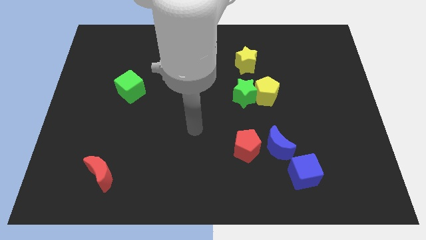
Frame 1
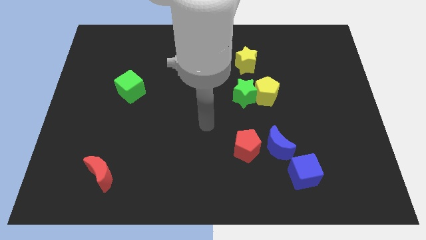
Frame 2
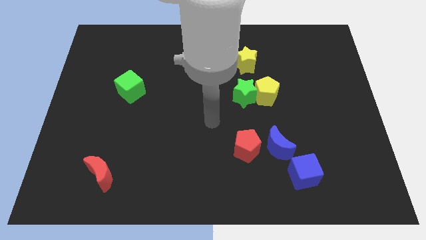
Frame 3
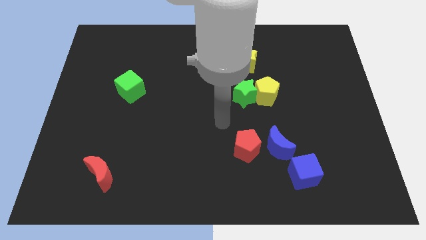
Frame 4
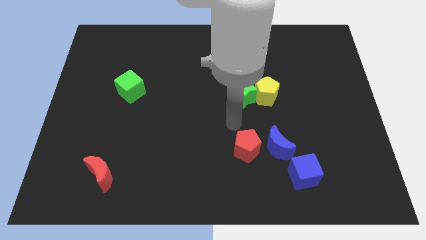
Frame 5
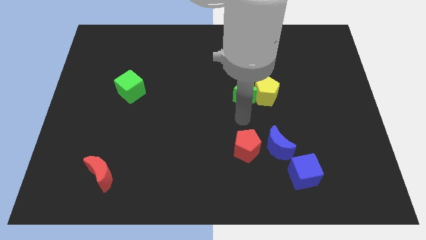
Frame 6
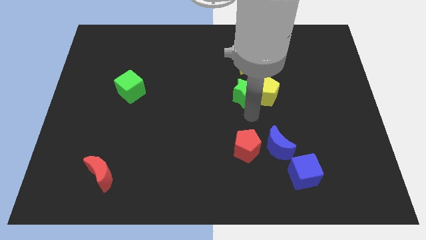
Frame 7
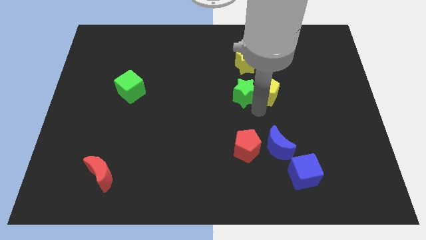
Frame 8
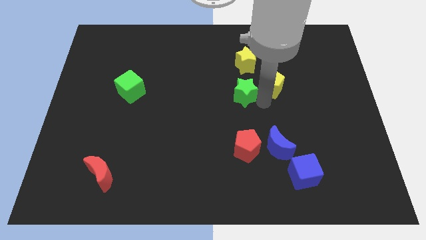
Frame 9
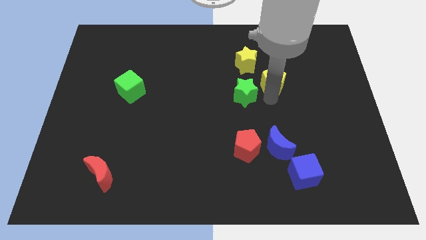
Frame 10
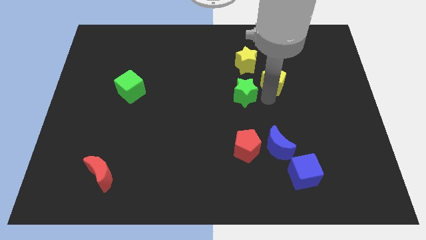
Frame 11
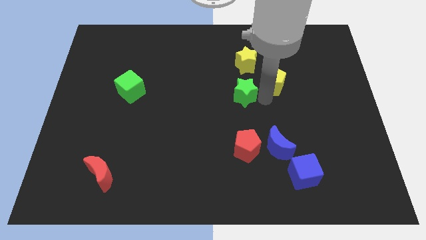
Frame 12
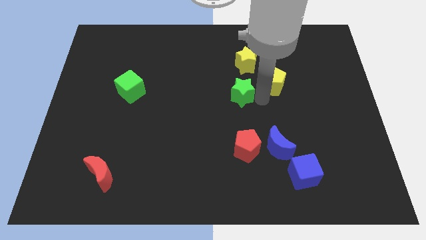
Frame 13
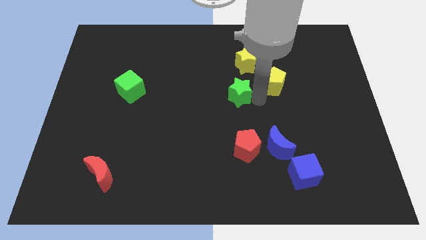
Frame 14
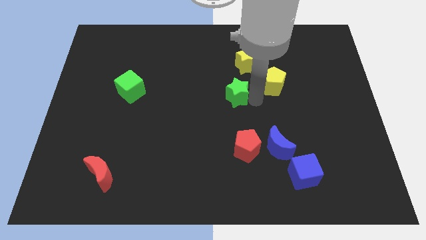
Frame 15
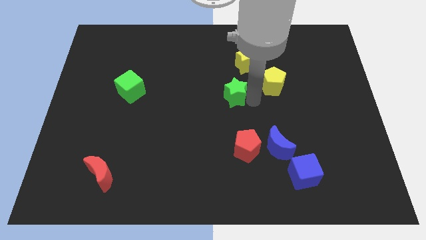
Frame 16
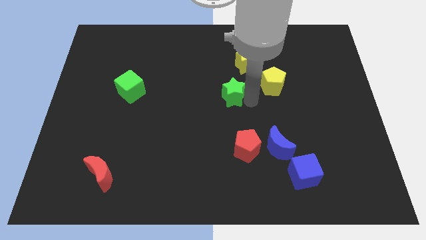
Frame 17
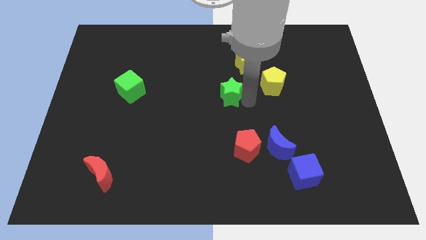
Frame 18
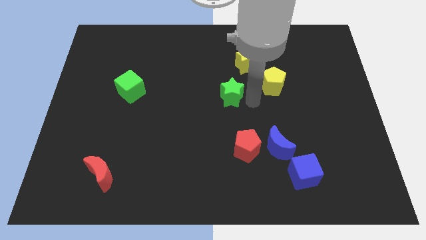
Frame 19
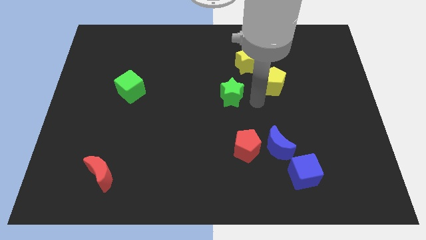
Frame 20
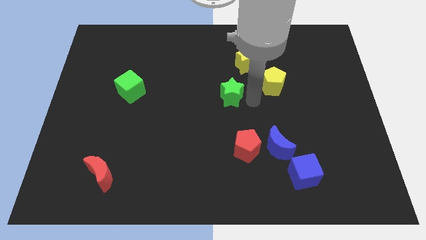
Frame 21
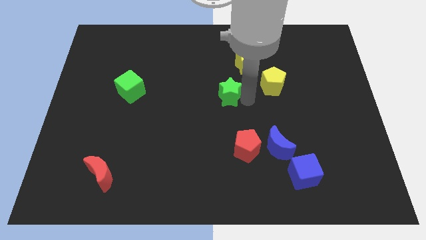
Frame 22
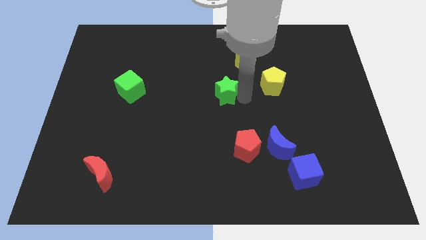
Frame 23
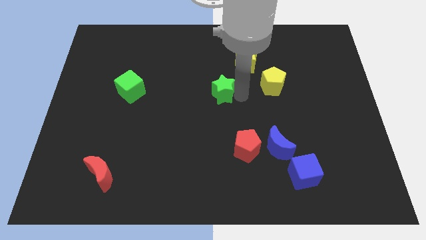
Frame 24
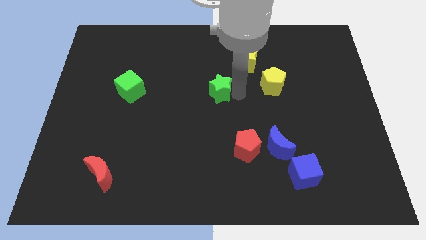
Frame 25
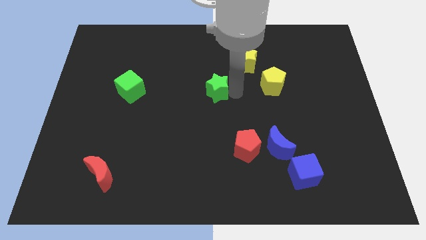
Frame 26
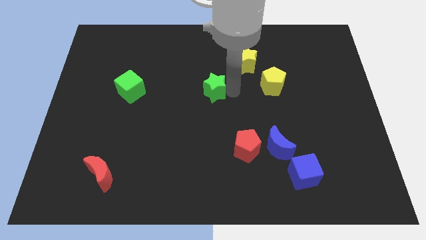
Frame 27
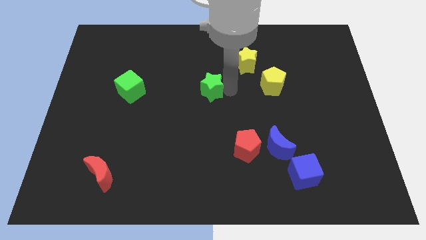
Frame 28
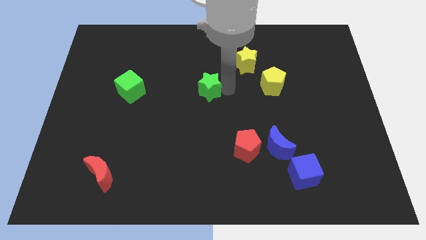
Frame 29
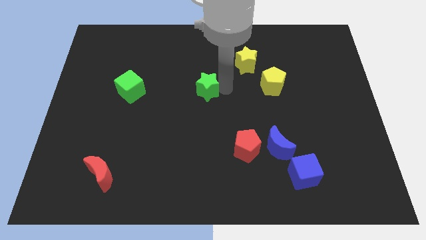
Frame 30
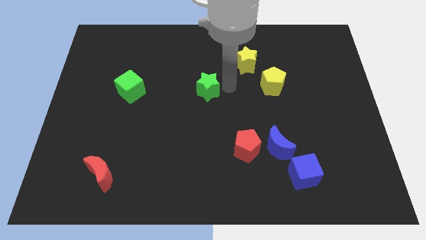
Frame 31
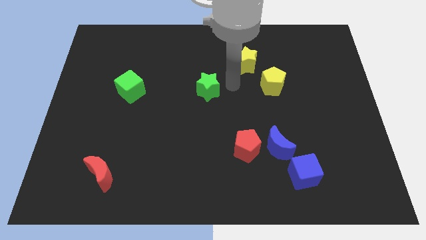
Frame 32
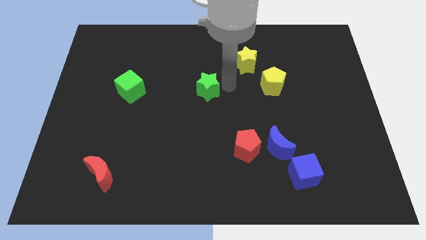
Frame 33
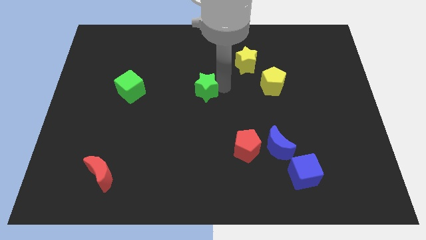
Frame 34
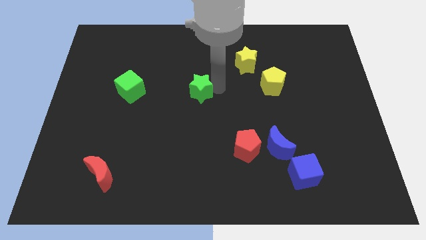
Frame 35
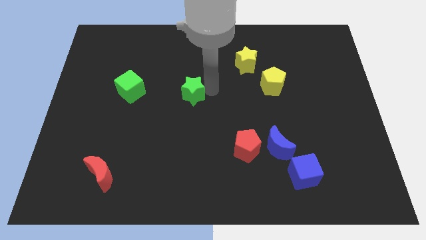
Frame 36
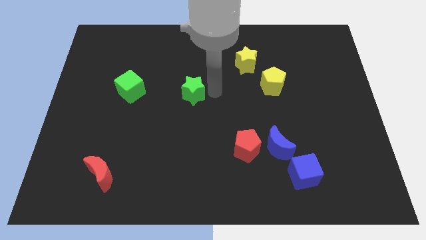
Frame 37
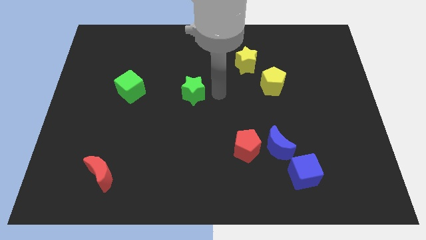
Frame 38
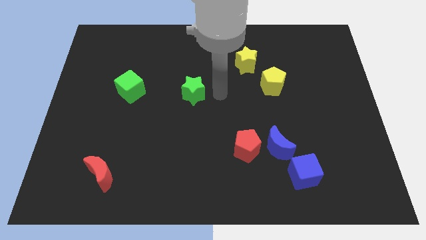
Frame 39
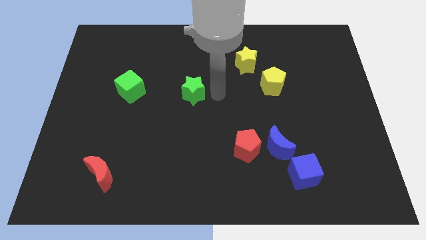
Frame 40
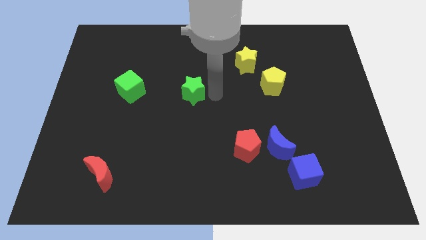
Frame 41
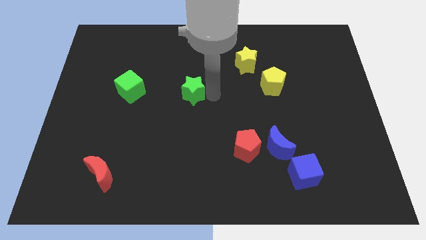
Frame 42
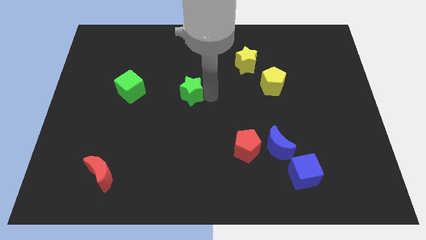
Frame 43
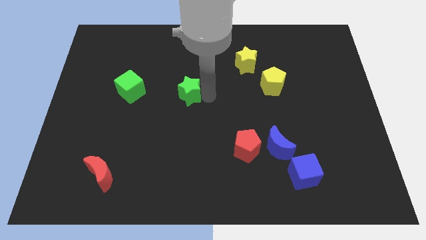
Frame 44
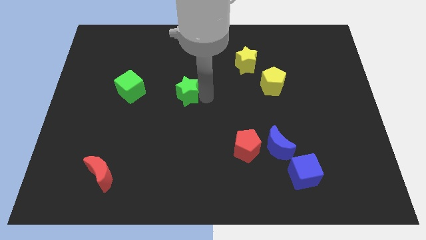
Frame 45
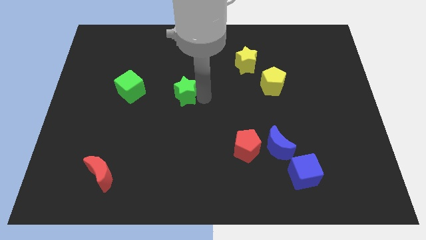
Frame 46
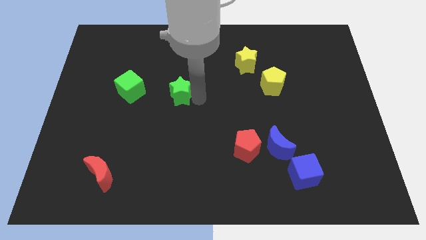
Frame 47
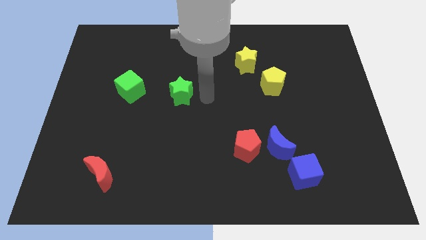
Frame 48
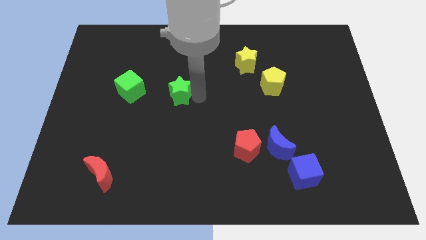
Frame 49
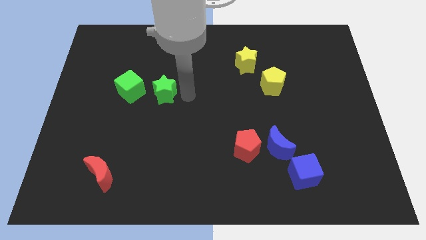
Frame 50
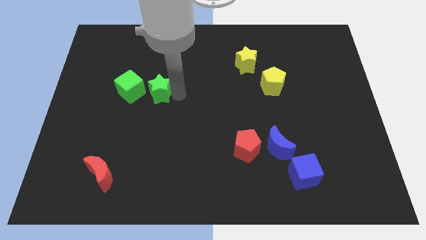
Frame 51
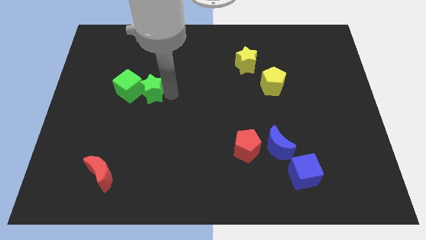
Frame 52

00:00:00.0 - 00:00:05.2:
put the green star towards the green cube

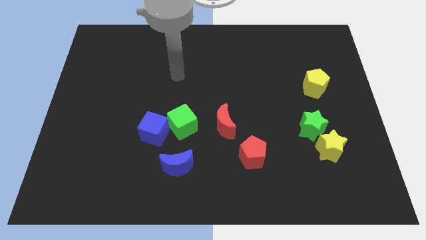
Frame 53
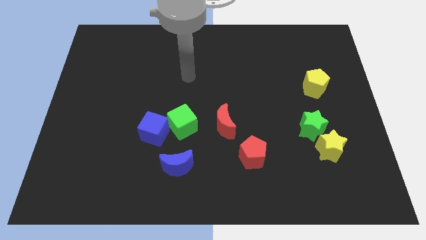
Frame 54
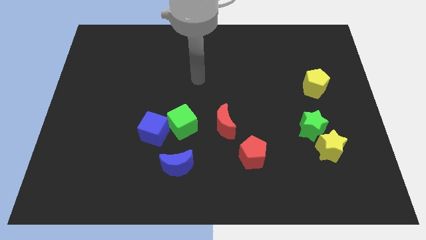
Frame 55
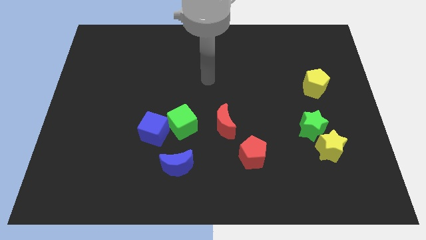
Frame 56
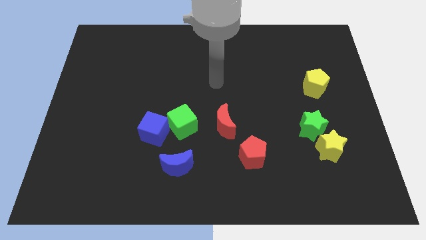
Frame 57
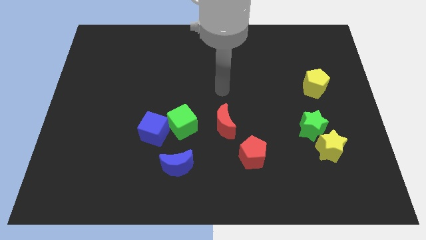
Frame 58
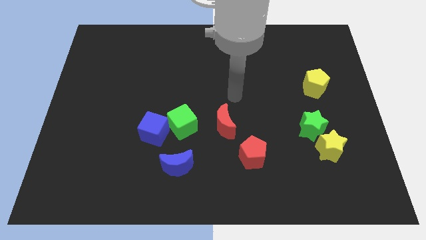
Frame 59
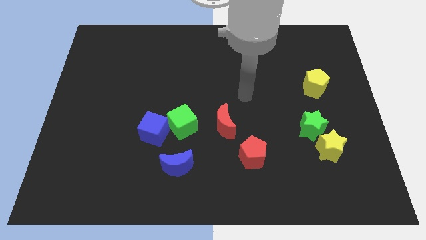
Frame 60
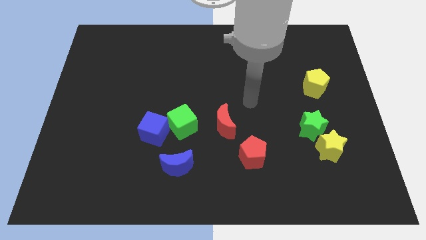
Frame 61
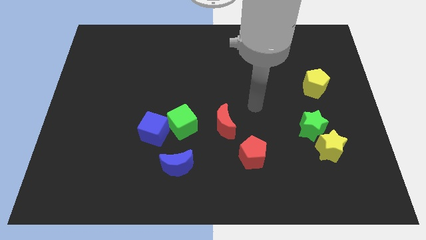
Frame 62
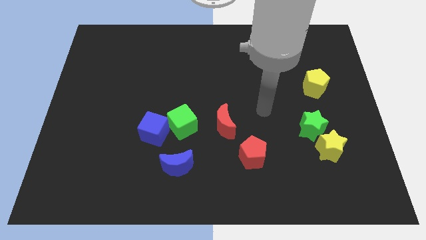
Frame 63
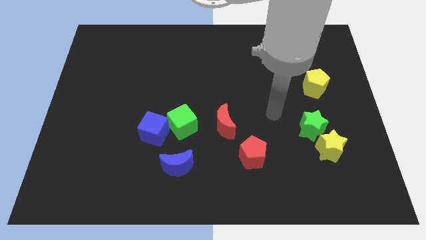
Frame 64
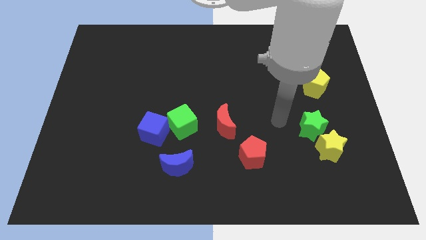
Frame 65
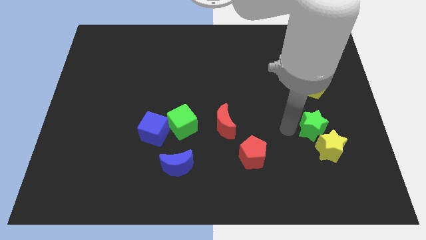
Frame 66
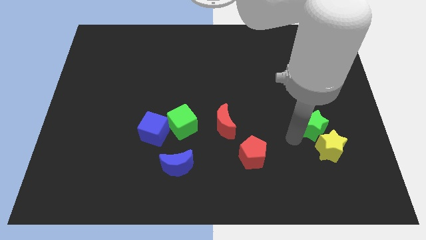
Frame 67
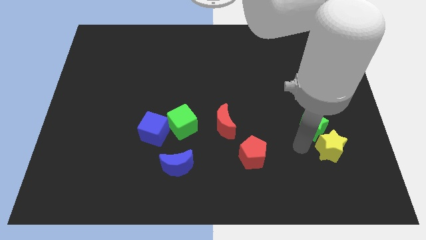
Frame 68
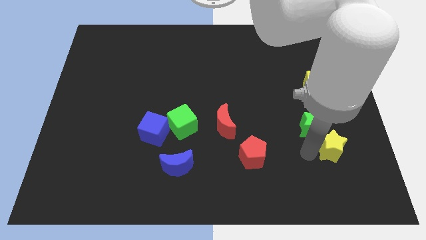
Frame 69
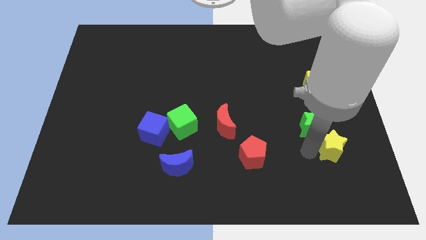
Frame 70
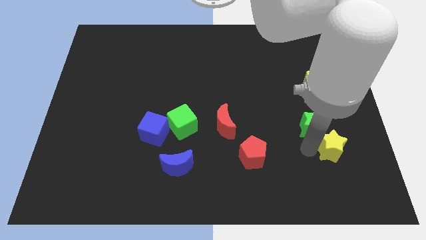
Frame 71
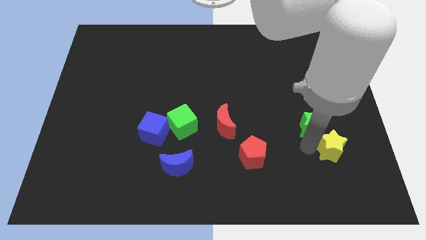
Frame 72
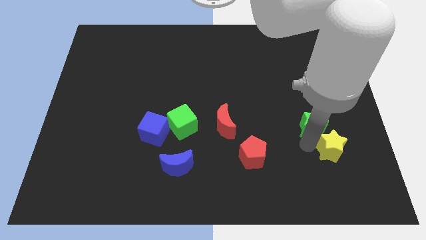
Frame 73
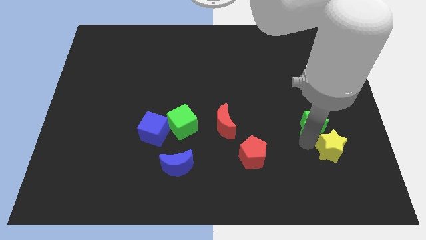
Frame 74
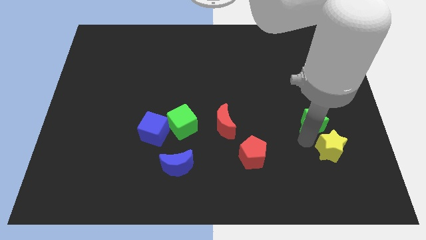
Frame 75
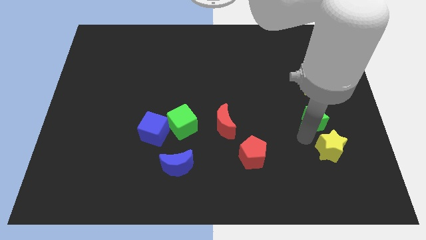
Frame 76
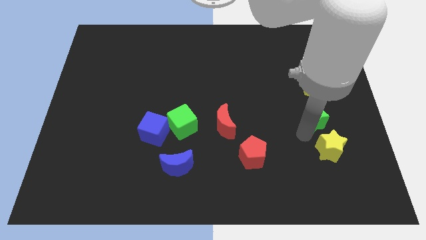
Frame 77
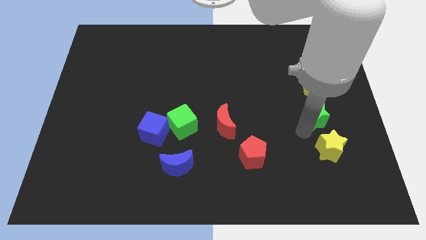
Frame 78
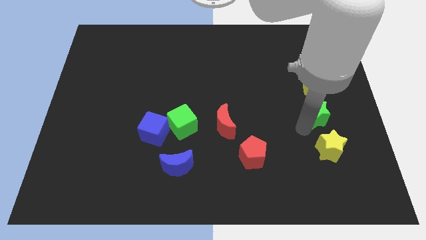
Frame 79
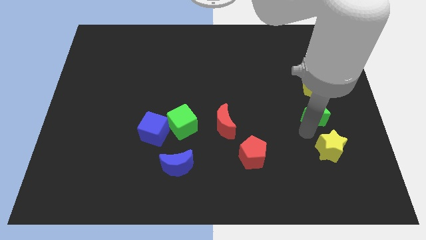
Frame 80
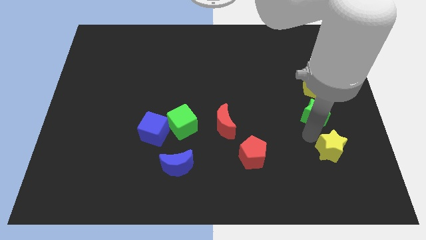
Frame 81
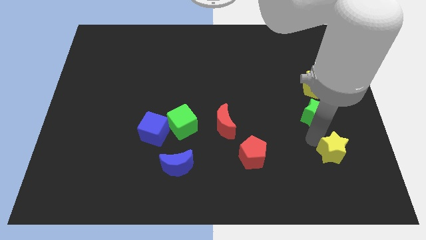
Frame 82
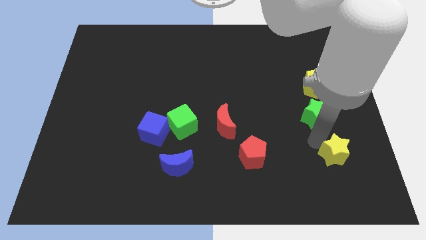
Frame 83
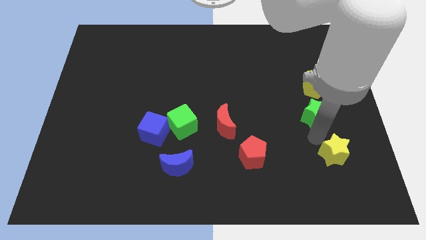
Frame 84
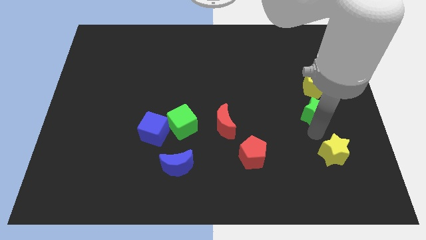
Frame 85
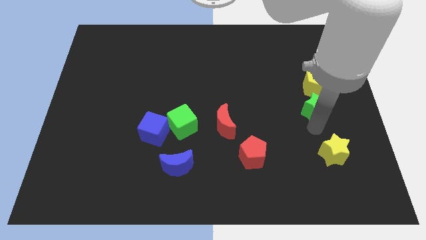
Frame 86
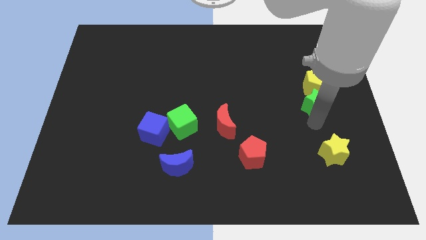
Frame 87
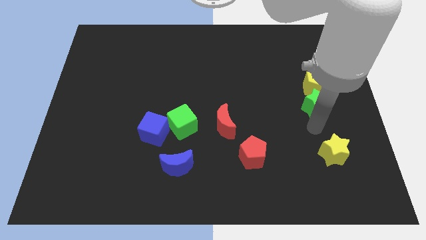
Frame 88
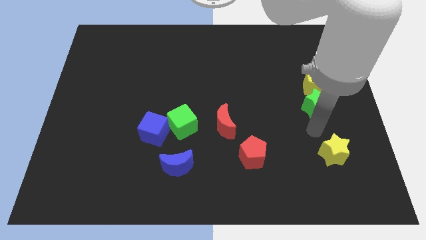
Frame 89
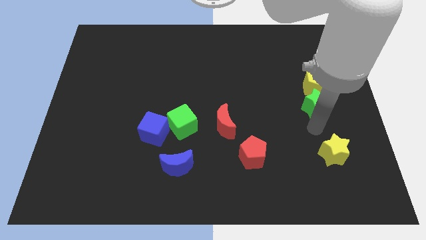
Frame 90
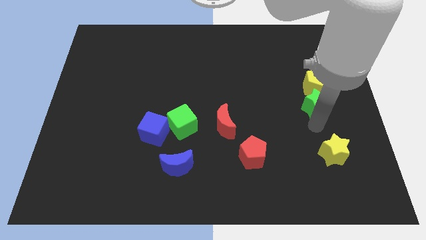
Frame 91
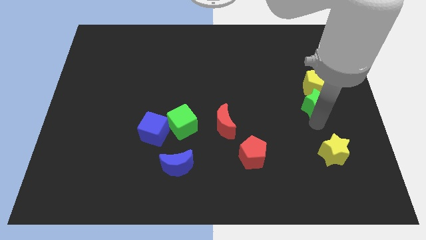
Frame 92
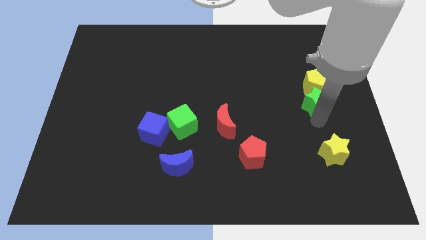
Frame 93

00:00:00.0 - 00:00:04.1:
put the green star next to the yellow pentagon
